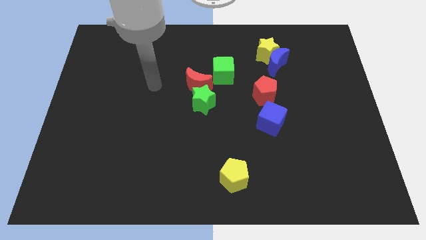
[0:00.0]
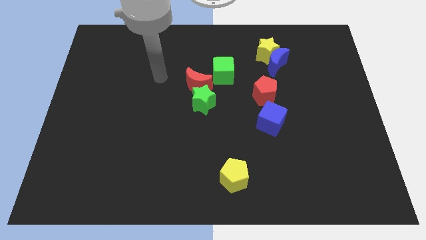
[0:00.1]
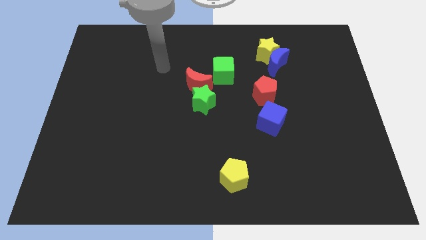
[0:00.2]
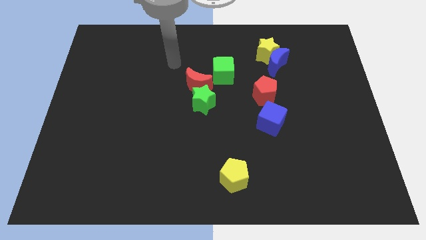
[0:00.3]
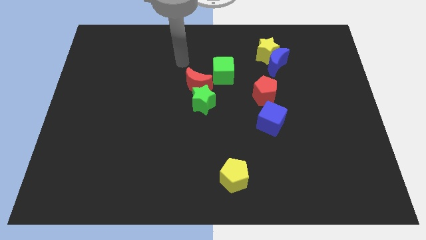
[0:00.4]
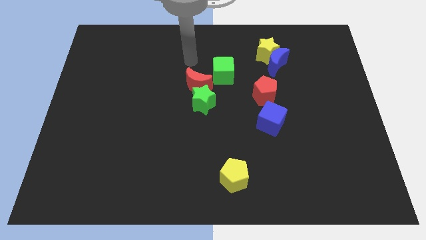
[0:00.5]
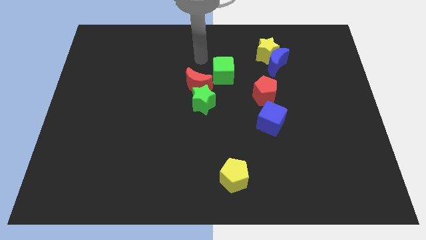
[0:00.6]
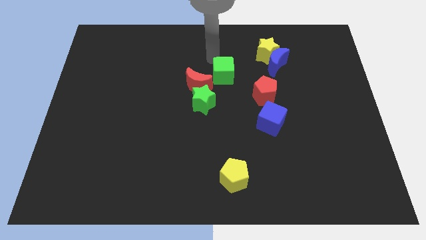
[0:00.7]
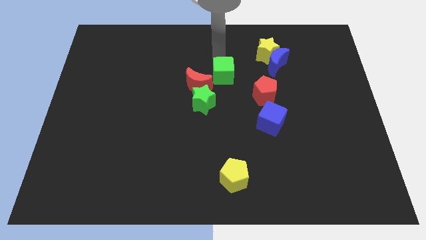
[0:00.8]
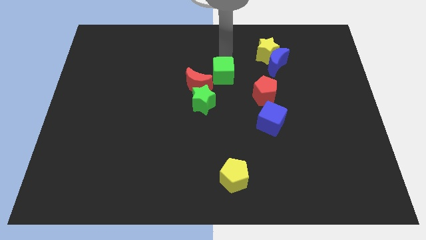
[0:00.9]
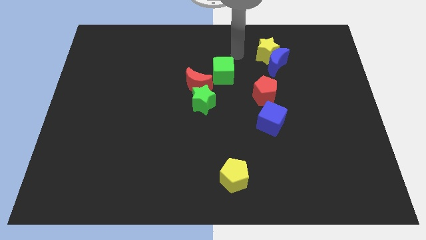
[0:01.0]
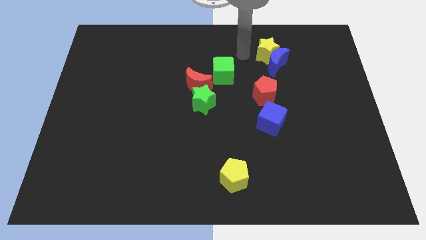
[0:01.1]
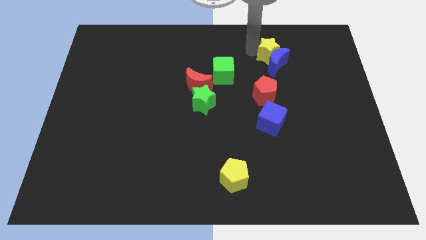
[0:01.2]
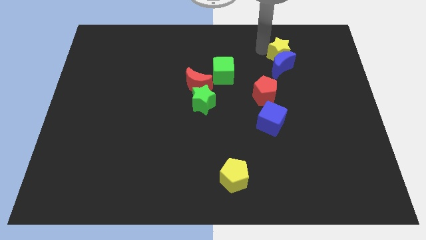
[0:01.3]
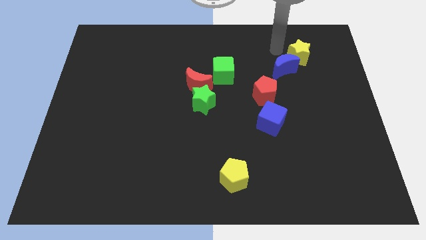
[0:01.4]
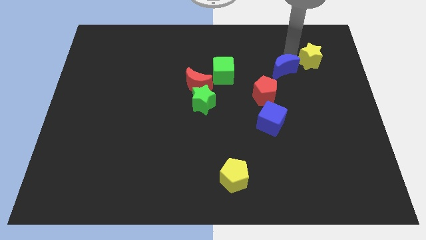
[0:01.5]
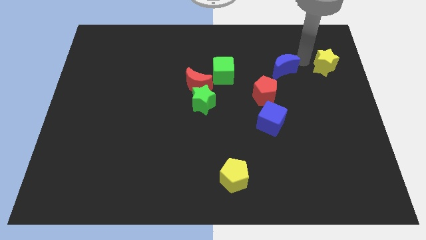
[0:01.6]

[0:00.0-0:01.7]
pull the blue moon apart from the yellow star

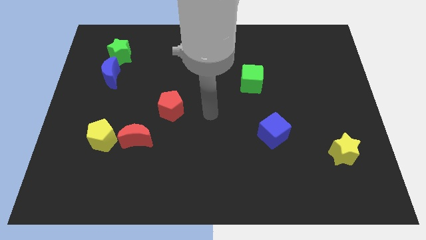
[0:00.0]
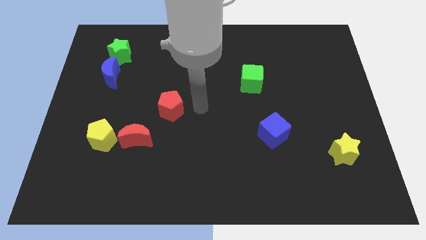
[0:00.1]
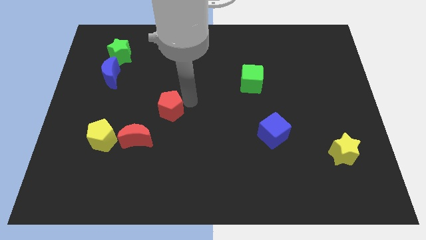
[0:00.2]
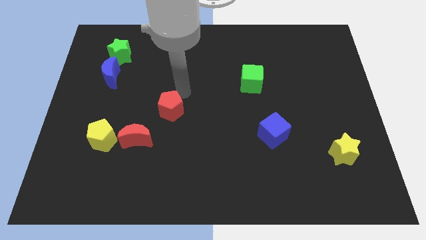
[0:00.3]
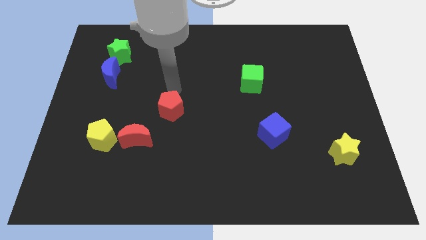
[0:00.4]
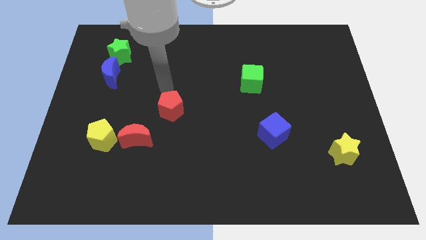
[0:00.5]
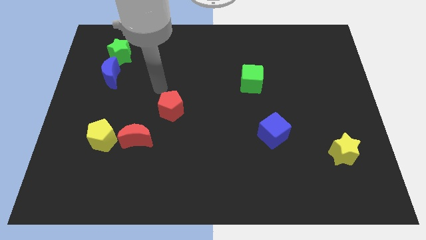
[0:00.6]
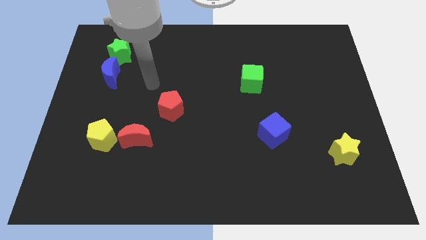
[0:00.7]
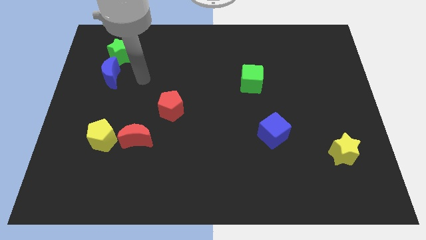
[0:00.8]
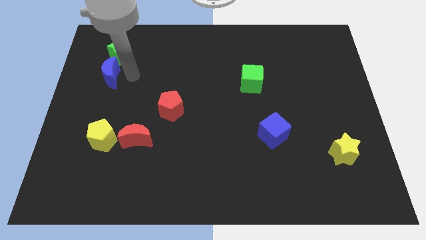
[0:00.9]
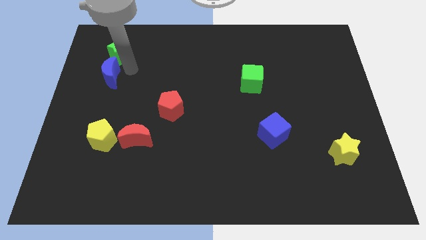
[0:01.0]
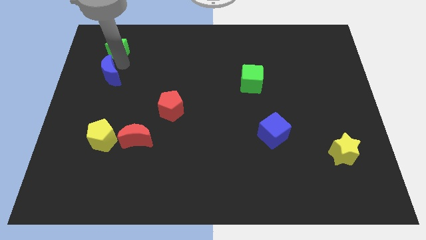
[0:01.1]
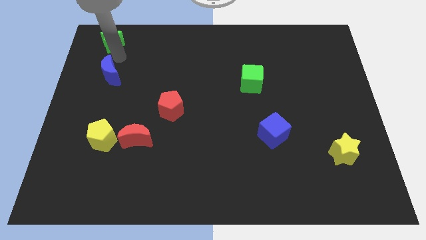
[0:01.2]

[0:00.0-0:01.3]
separate the blue moon from the green star

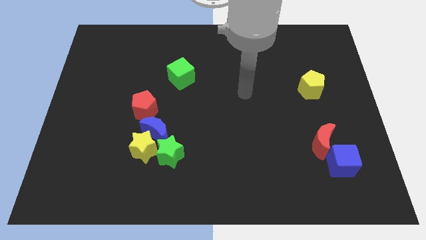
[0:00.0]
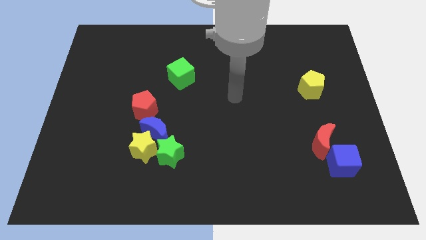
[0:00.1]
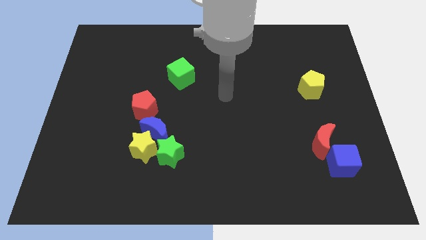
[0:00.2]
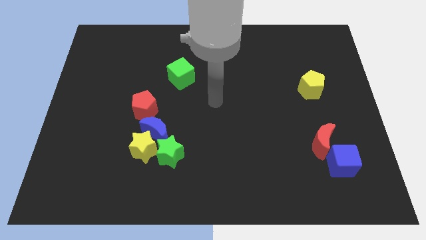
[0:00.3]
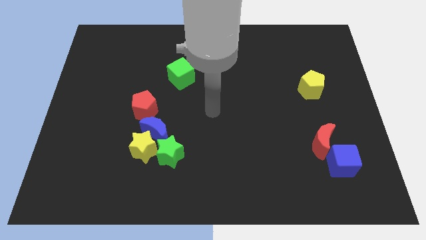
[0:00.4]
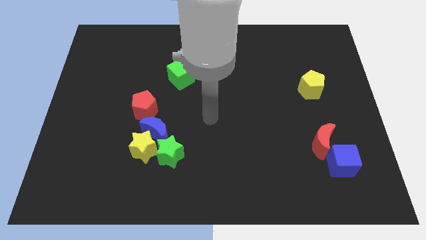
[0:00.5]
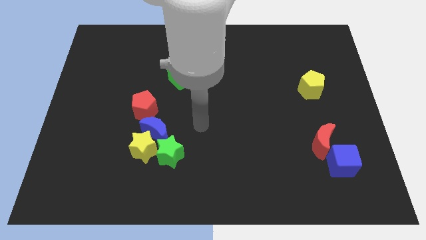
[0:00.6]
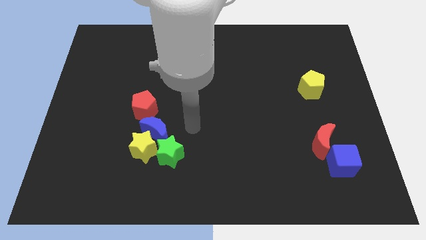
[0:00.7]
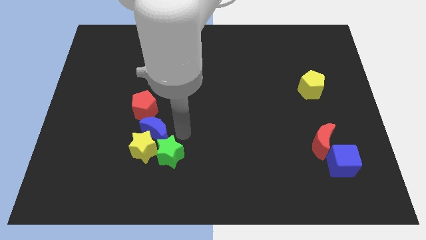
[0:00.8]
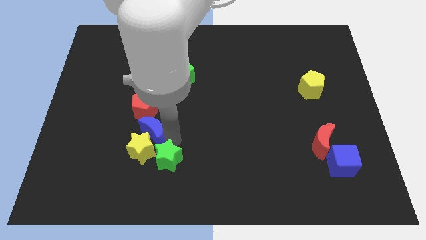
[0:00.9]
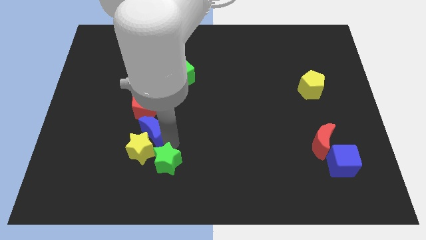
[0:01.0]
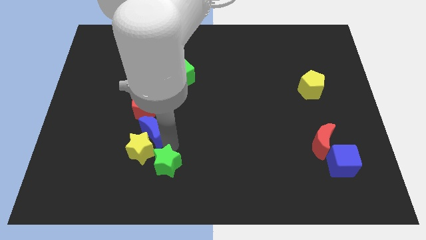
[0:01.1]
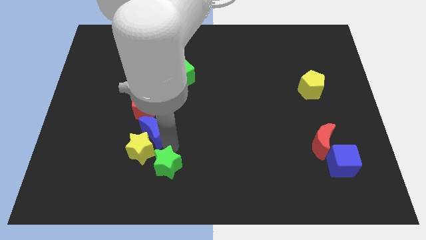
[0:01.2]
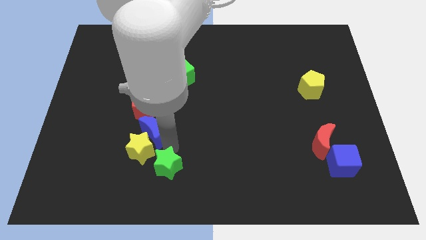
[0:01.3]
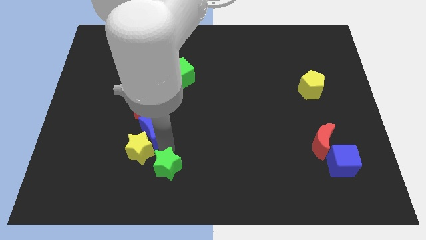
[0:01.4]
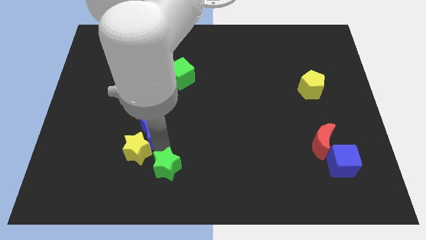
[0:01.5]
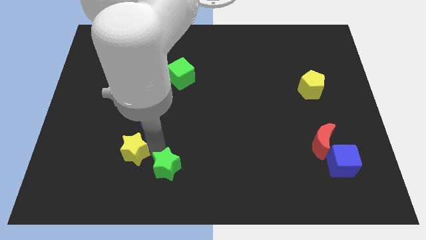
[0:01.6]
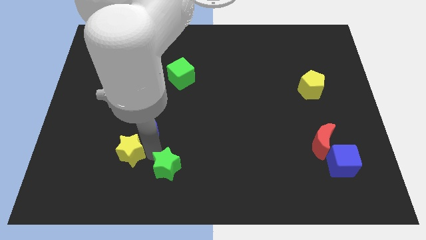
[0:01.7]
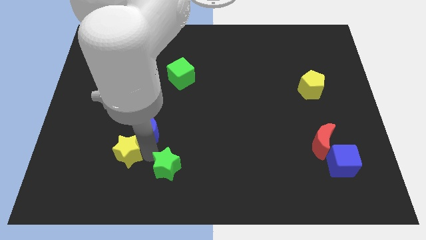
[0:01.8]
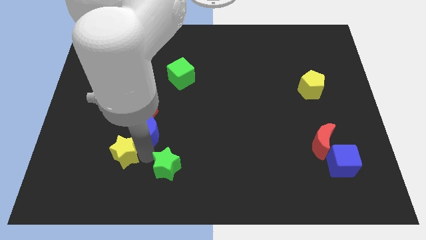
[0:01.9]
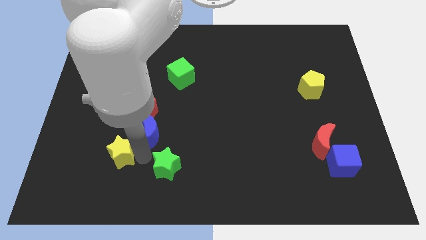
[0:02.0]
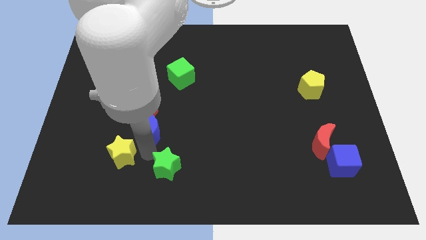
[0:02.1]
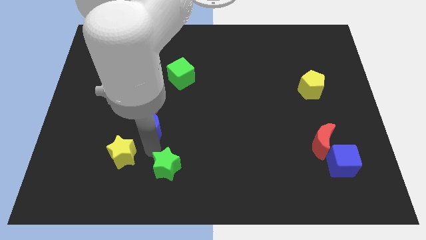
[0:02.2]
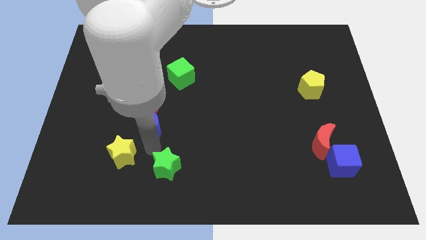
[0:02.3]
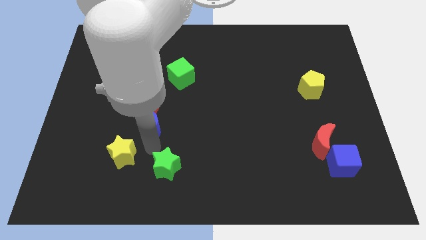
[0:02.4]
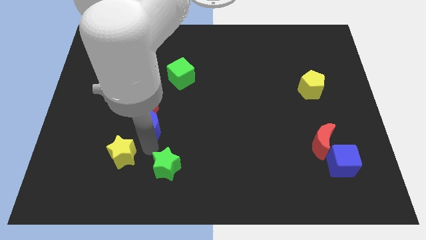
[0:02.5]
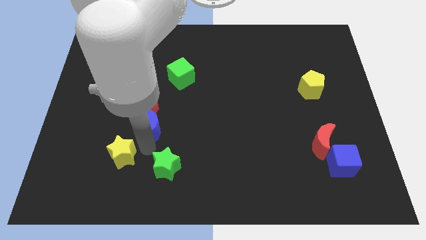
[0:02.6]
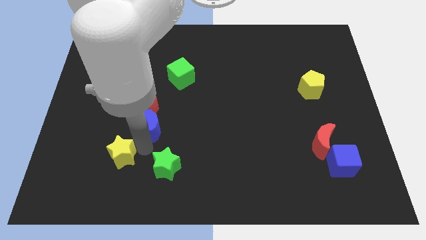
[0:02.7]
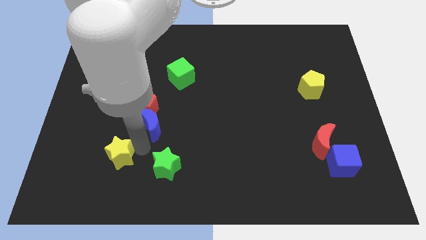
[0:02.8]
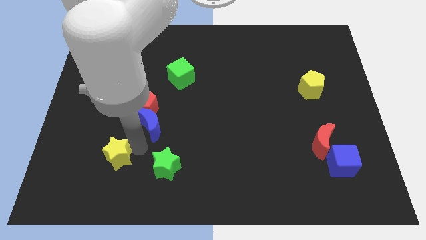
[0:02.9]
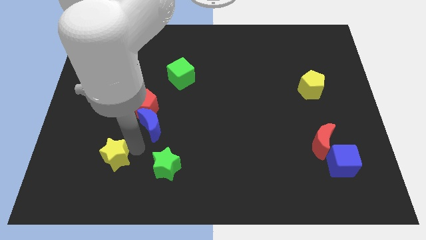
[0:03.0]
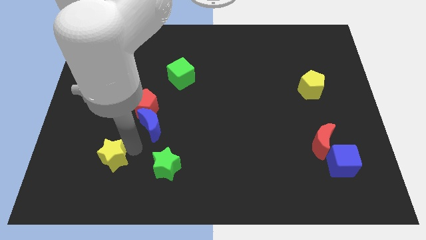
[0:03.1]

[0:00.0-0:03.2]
pull the yellow star apart from the blue moon and green star

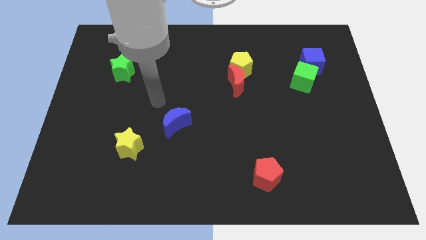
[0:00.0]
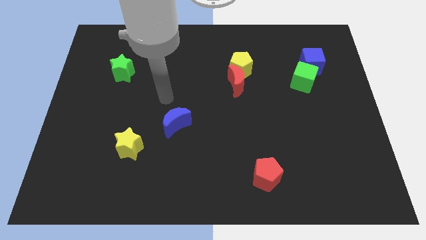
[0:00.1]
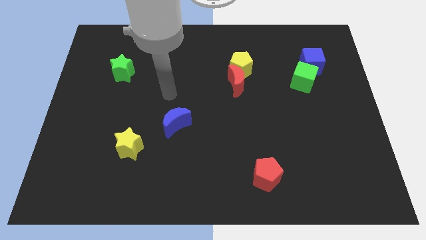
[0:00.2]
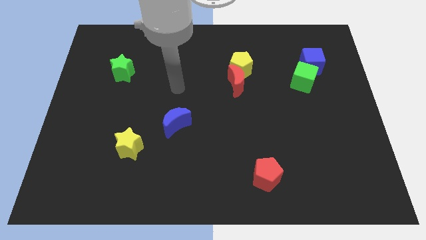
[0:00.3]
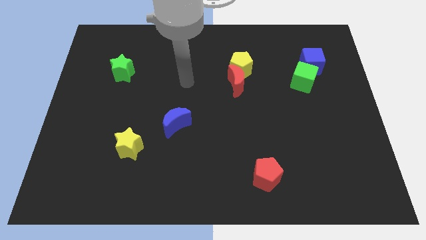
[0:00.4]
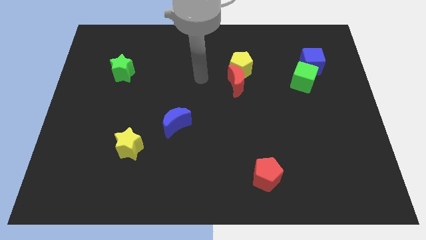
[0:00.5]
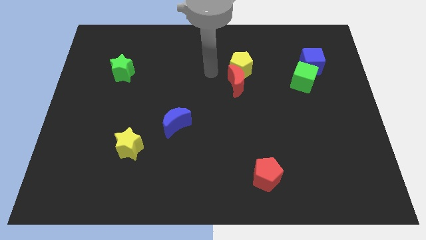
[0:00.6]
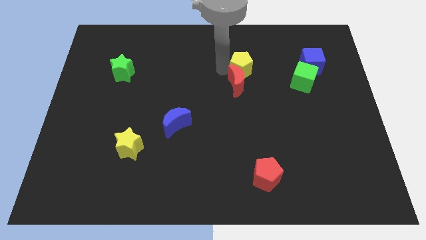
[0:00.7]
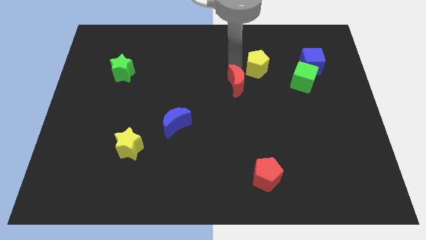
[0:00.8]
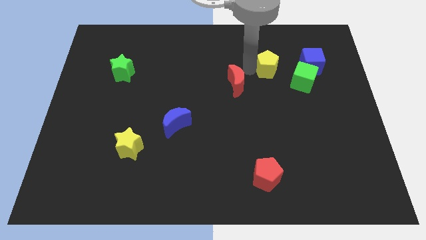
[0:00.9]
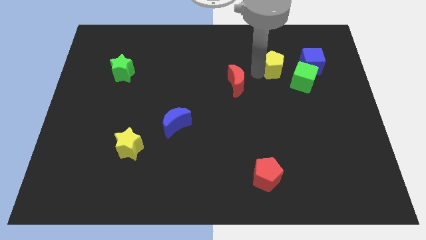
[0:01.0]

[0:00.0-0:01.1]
pull the red moon apart from the yellow pentagon

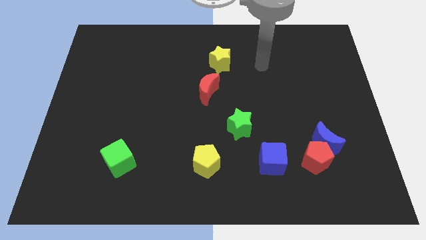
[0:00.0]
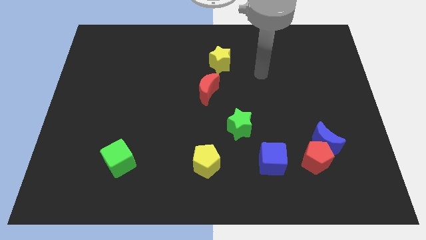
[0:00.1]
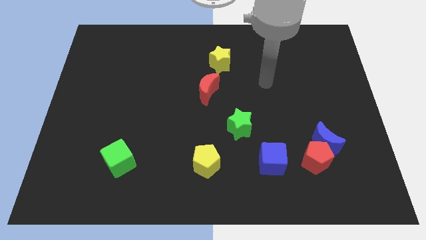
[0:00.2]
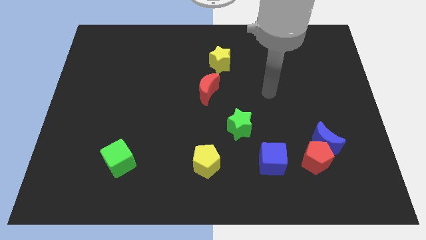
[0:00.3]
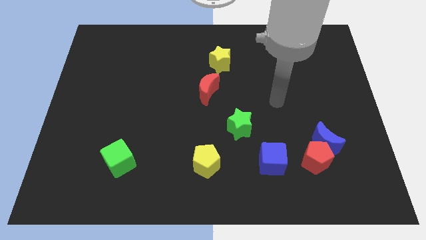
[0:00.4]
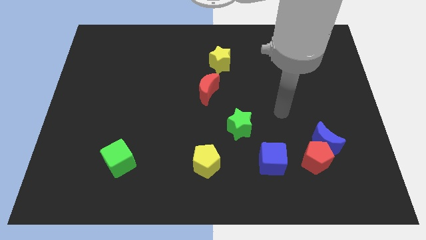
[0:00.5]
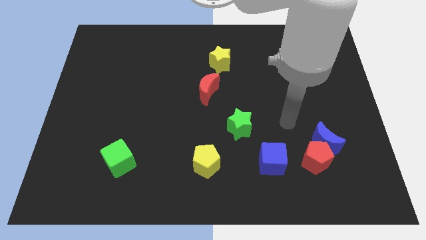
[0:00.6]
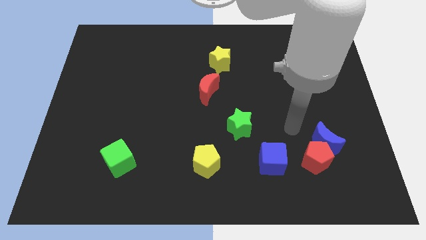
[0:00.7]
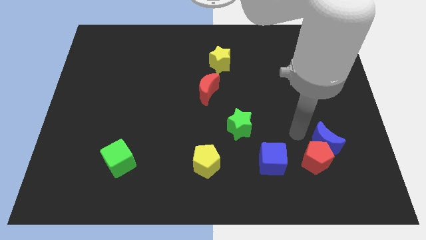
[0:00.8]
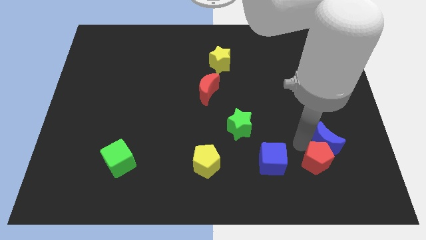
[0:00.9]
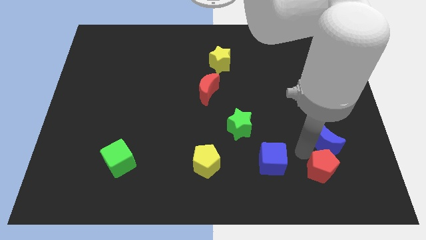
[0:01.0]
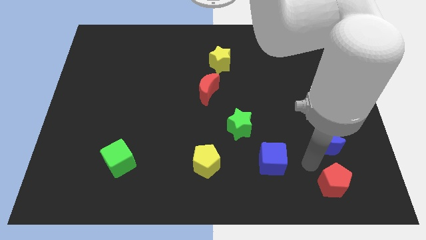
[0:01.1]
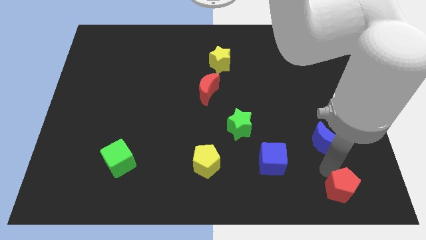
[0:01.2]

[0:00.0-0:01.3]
pull the blue moon apart from the red pentagon

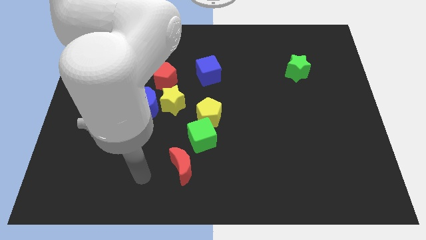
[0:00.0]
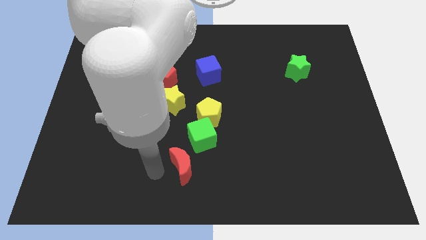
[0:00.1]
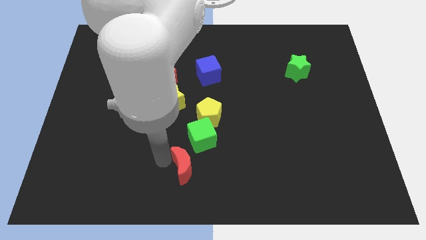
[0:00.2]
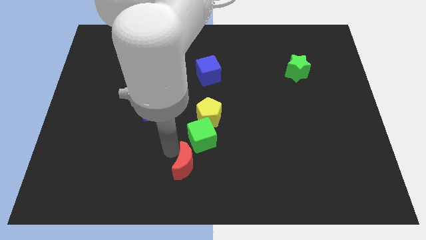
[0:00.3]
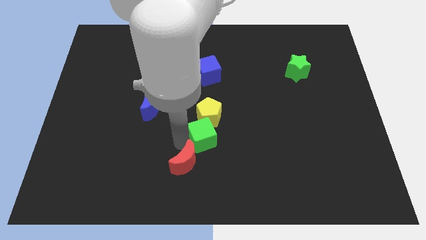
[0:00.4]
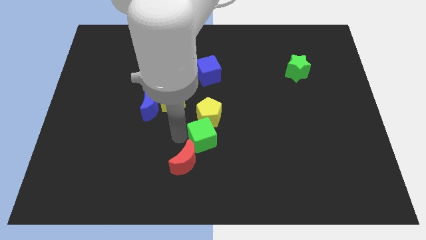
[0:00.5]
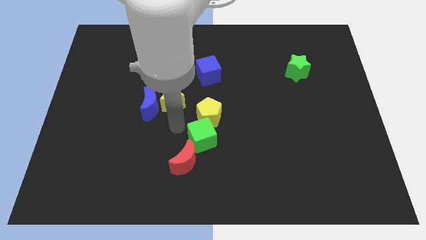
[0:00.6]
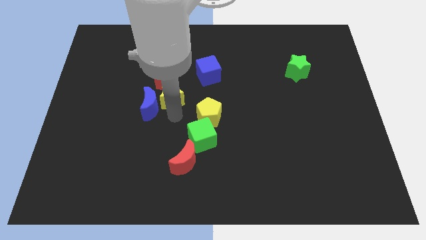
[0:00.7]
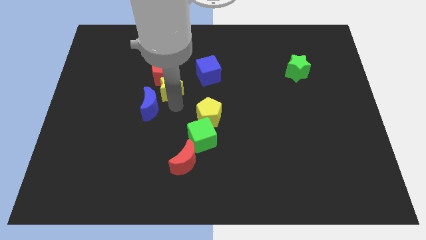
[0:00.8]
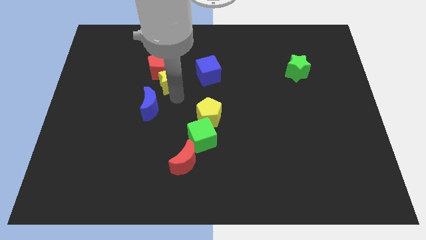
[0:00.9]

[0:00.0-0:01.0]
pull the blue moon apart from the yellow star and red pentagon
